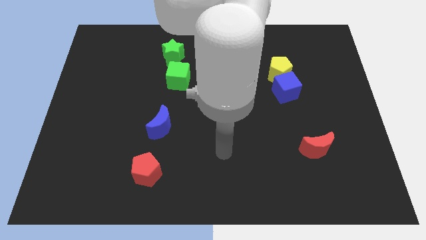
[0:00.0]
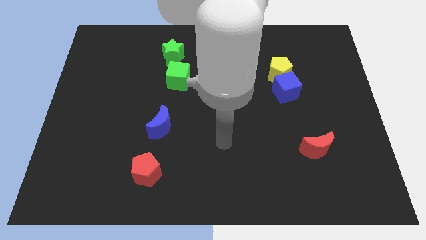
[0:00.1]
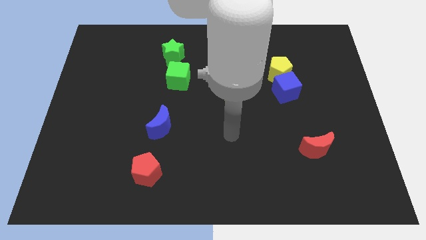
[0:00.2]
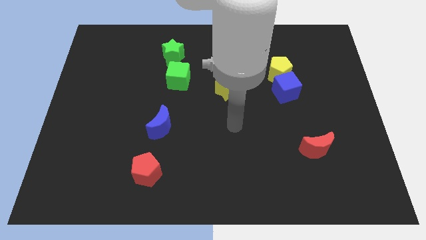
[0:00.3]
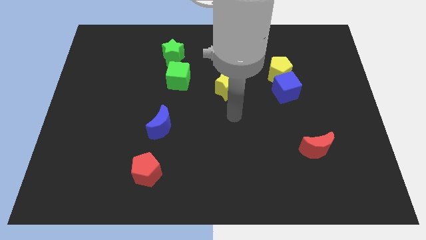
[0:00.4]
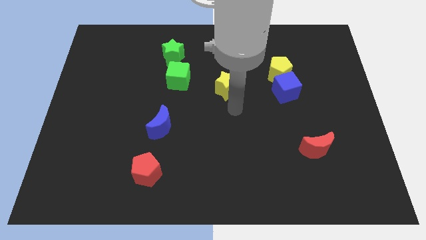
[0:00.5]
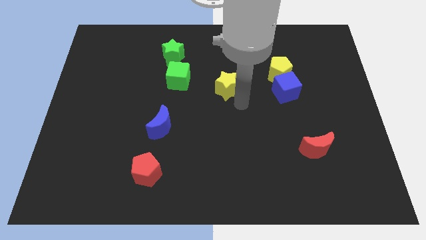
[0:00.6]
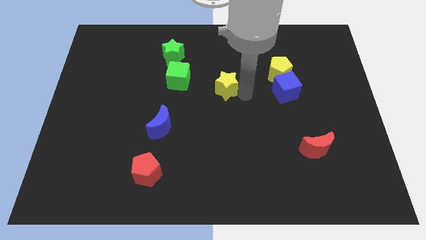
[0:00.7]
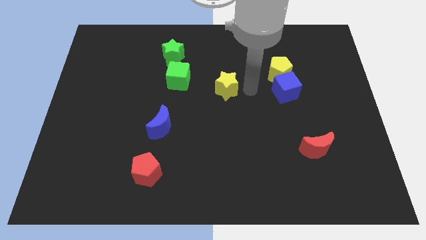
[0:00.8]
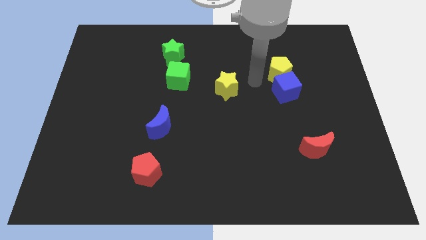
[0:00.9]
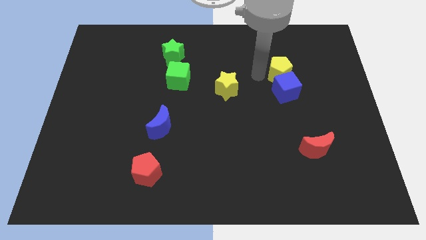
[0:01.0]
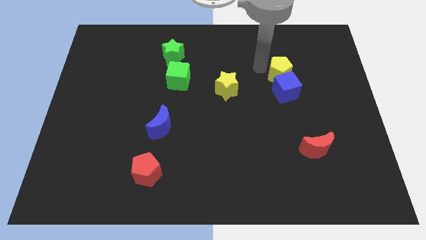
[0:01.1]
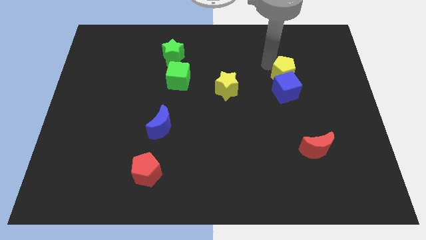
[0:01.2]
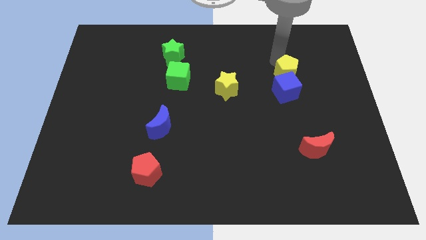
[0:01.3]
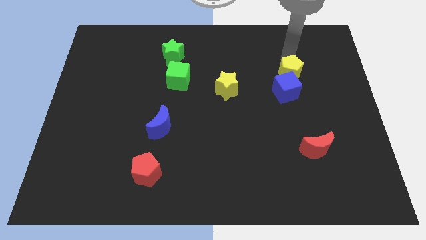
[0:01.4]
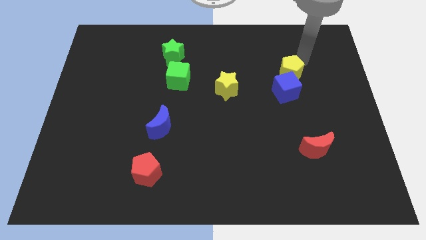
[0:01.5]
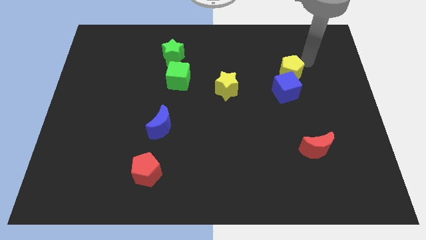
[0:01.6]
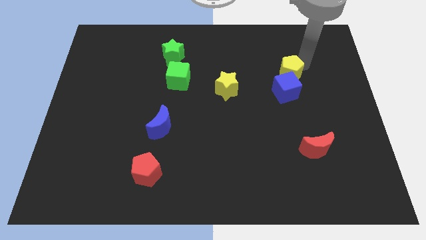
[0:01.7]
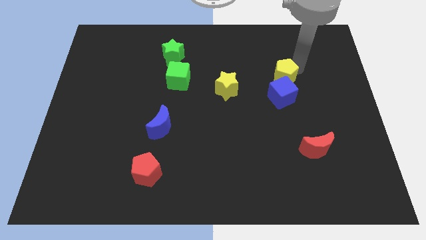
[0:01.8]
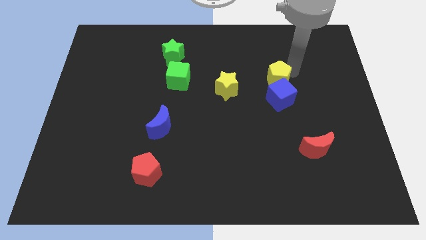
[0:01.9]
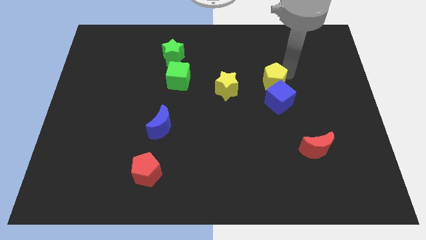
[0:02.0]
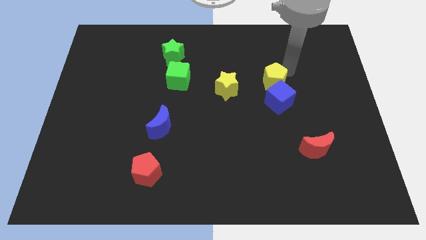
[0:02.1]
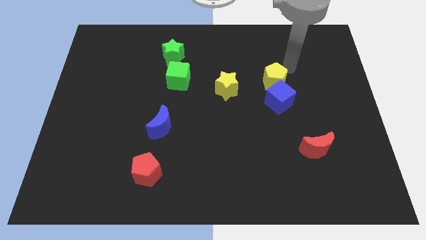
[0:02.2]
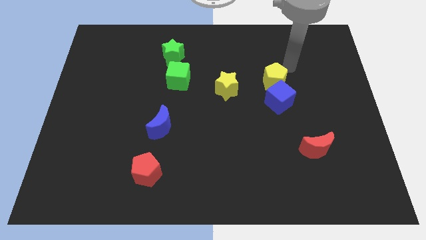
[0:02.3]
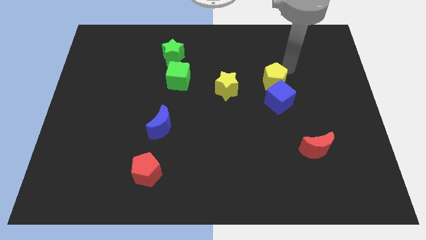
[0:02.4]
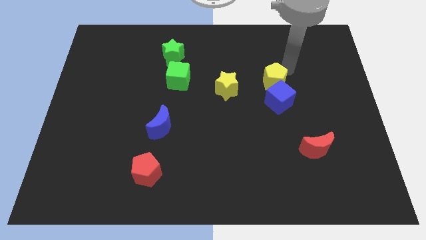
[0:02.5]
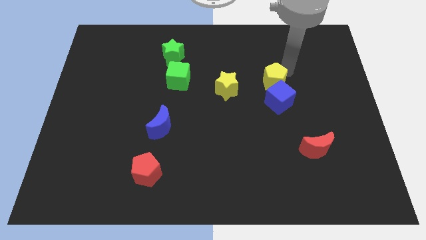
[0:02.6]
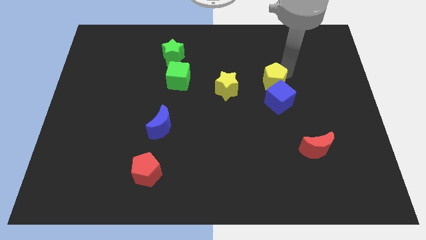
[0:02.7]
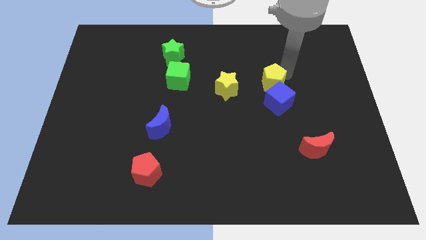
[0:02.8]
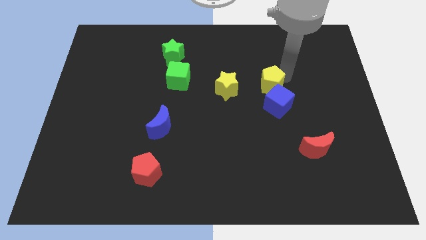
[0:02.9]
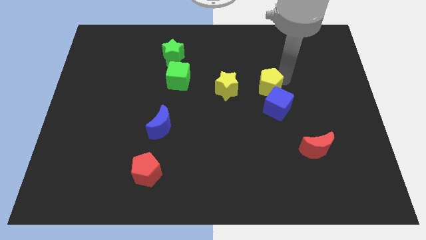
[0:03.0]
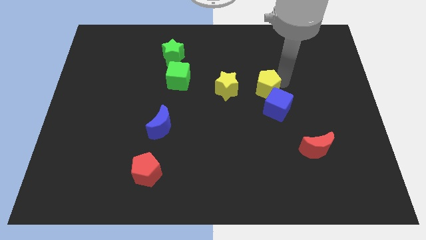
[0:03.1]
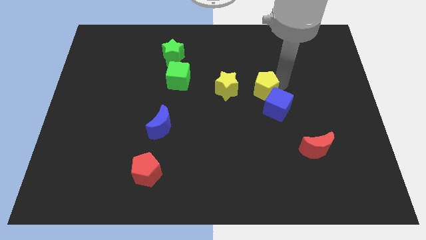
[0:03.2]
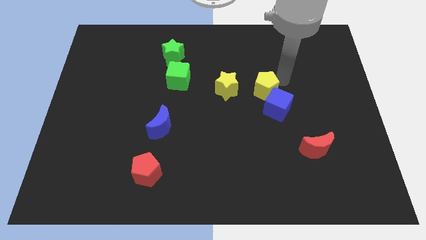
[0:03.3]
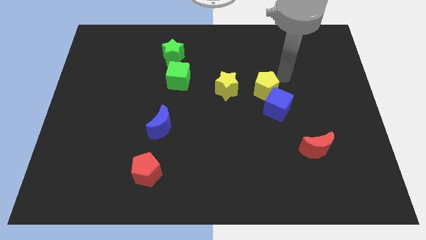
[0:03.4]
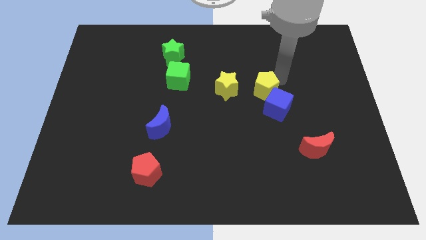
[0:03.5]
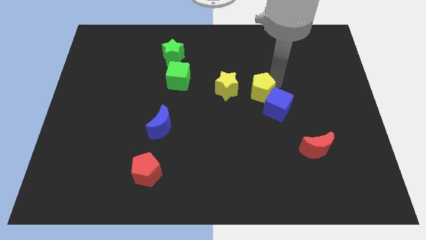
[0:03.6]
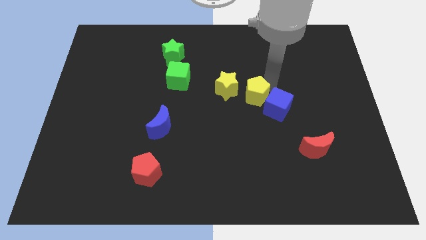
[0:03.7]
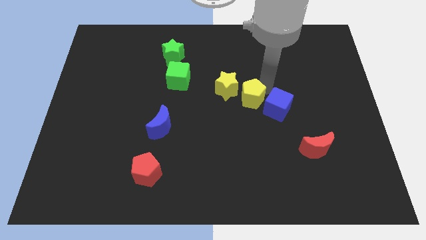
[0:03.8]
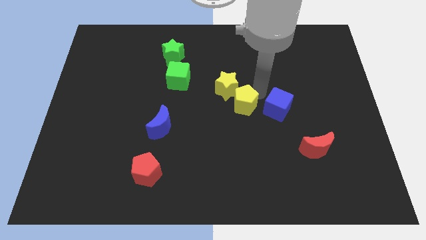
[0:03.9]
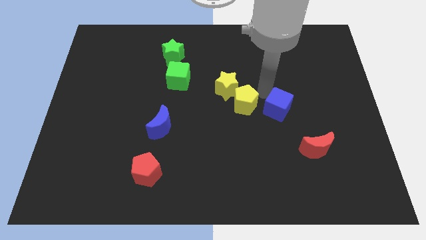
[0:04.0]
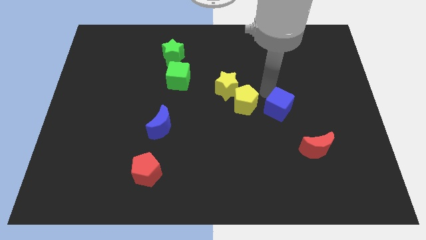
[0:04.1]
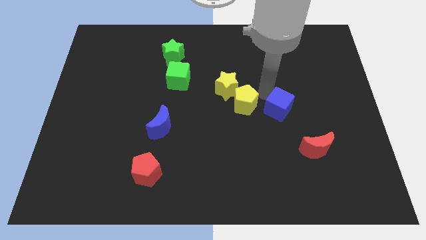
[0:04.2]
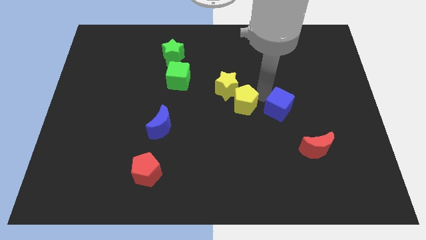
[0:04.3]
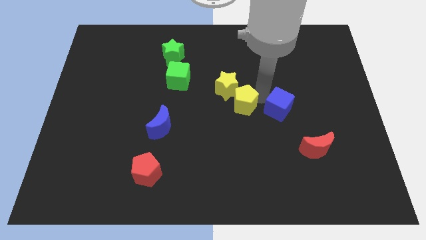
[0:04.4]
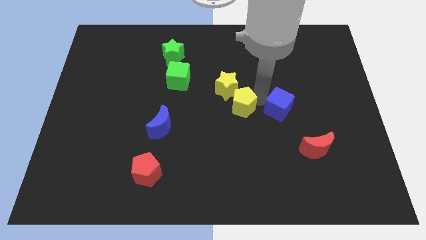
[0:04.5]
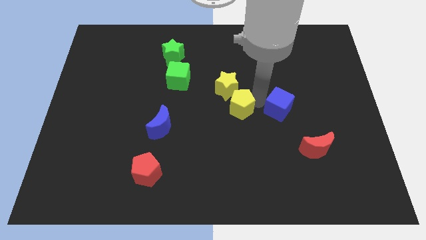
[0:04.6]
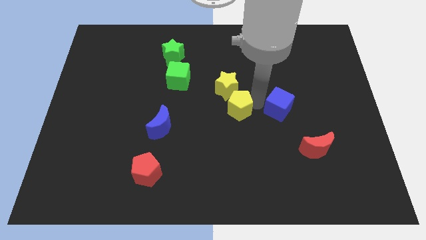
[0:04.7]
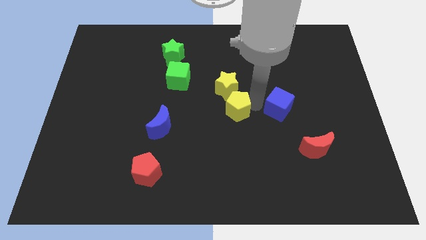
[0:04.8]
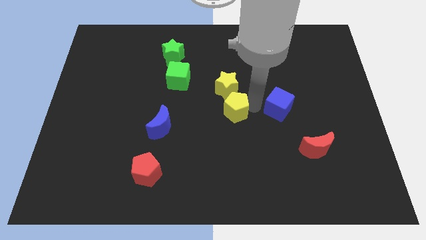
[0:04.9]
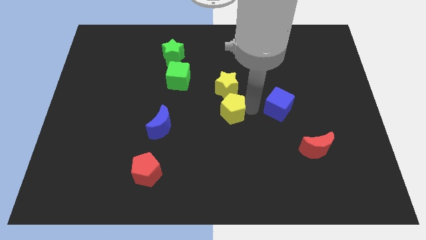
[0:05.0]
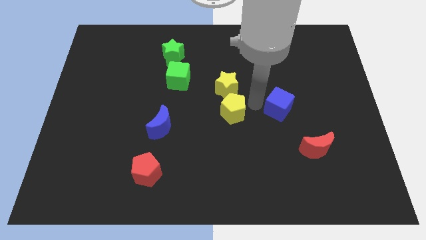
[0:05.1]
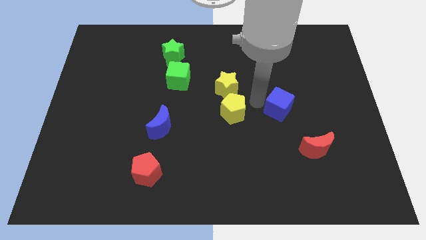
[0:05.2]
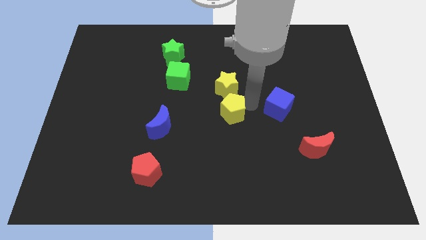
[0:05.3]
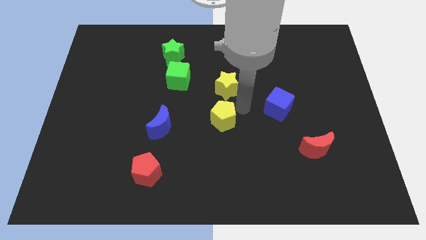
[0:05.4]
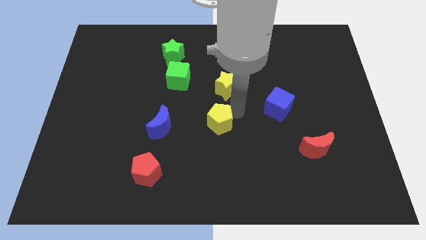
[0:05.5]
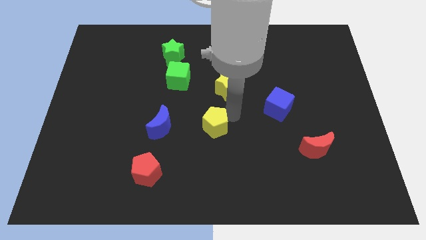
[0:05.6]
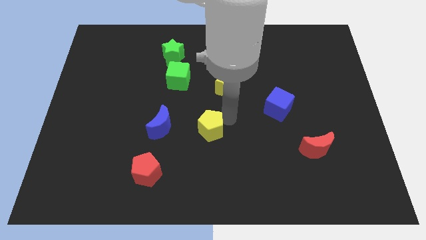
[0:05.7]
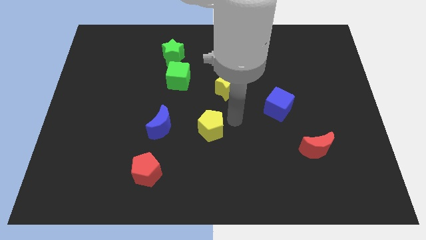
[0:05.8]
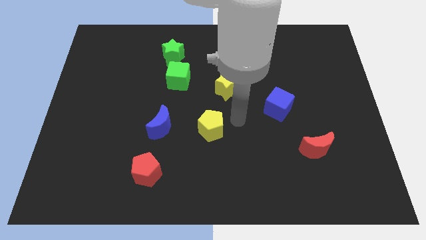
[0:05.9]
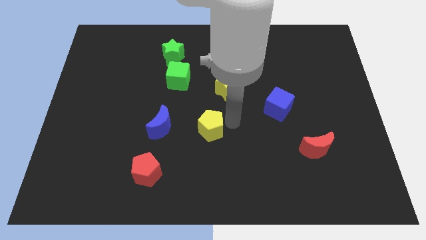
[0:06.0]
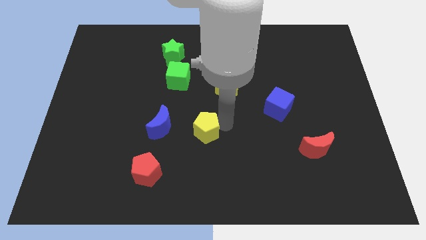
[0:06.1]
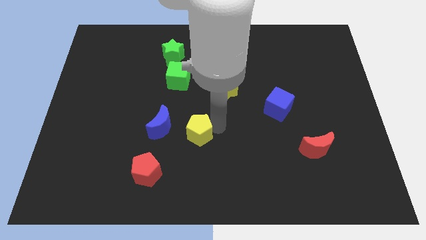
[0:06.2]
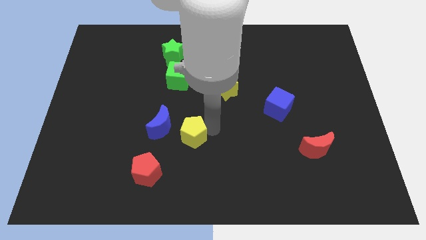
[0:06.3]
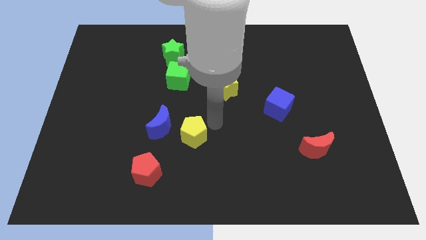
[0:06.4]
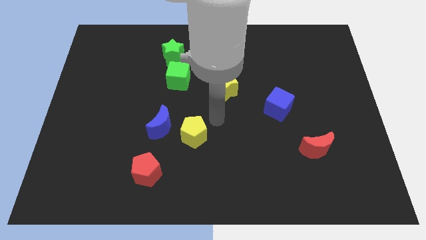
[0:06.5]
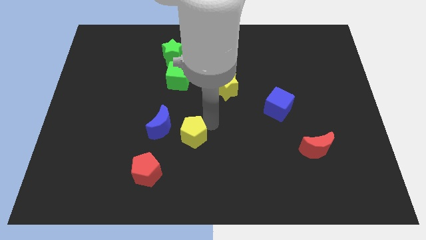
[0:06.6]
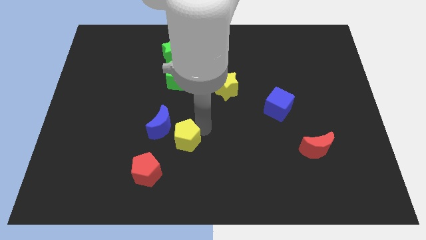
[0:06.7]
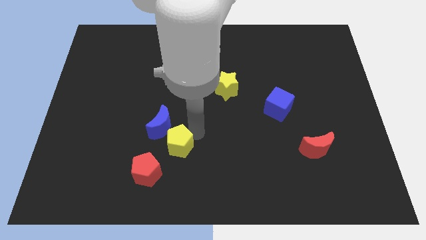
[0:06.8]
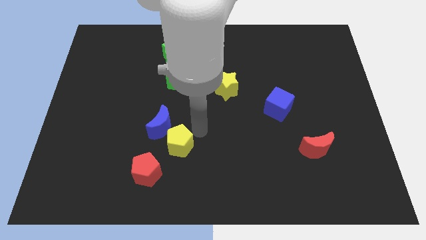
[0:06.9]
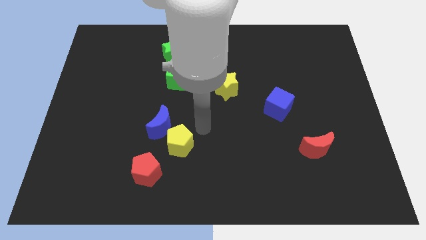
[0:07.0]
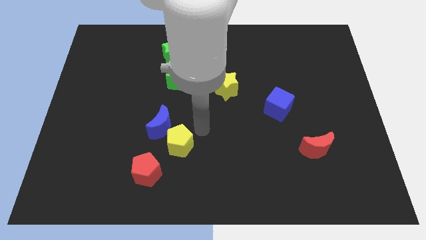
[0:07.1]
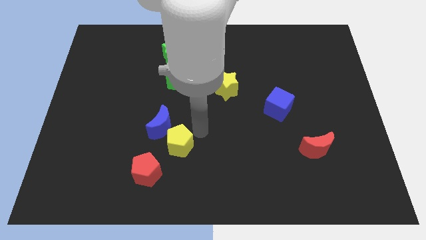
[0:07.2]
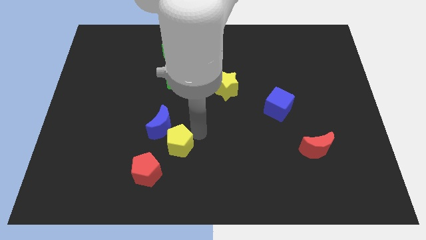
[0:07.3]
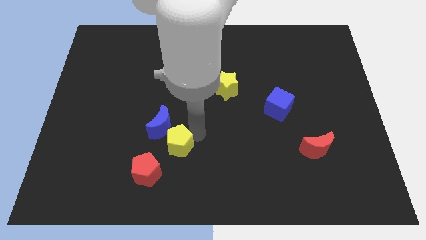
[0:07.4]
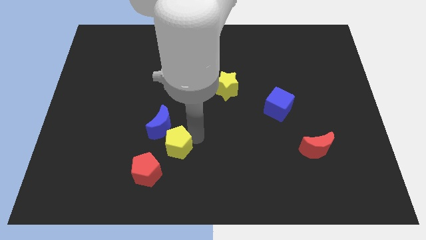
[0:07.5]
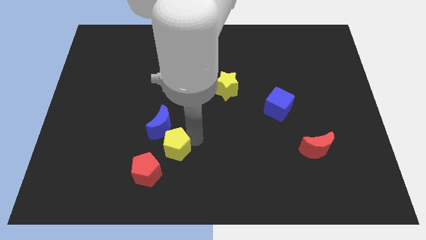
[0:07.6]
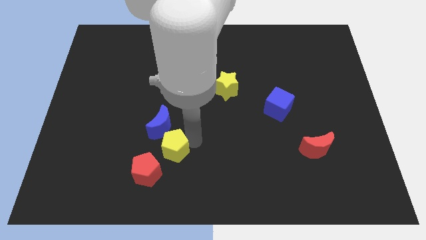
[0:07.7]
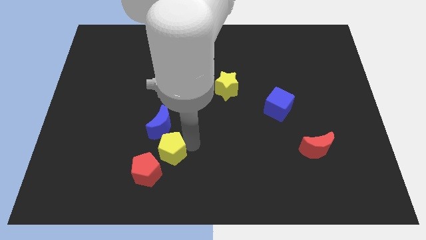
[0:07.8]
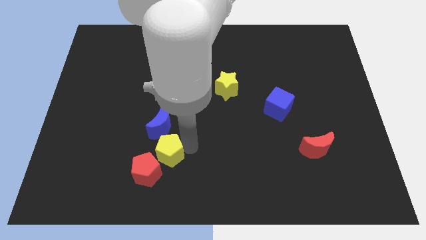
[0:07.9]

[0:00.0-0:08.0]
slide the yellow pentagon next to the red pentagon
